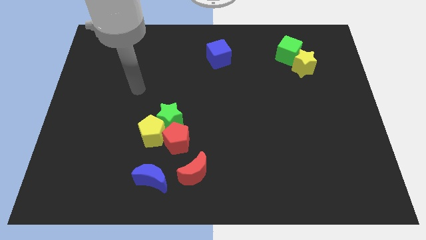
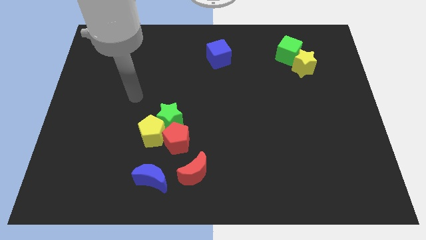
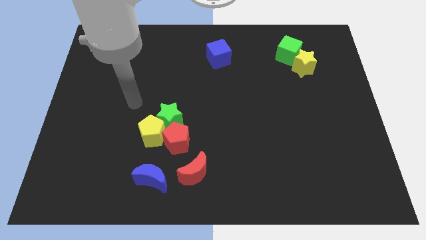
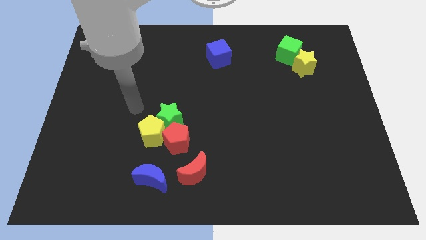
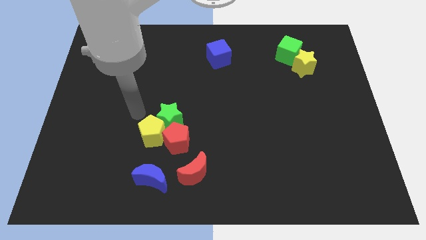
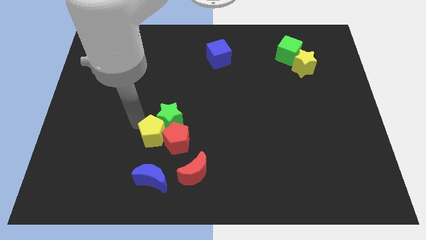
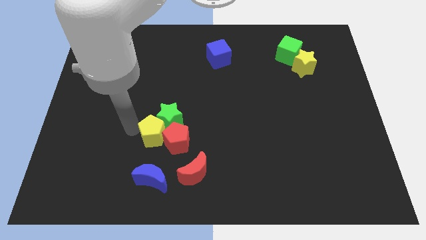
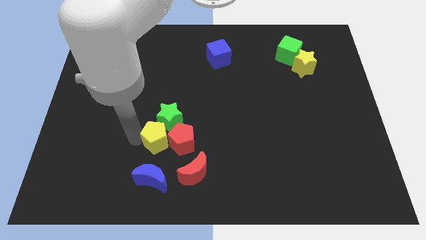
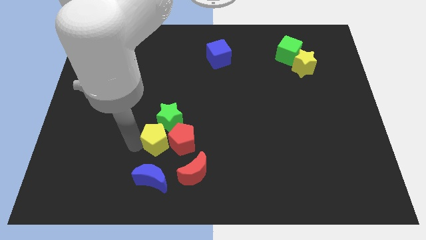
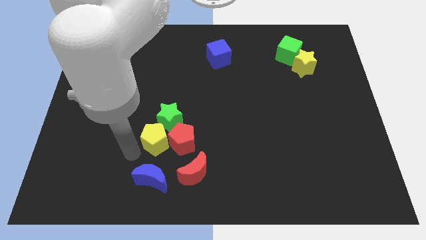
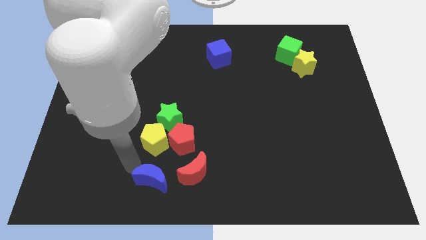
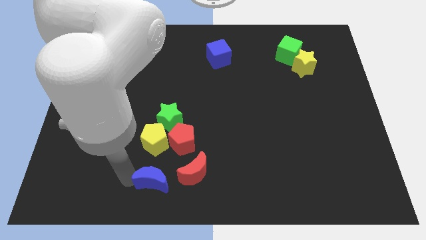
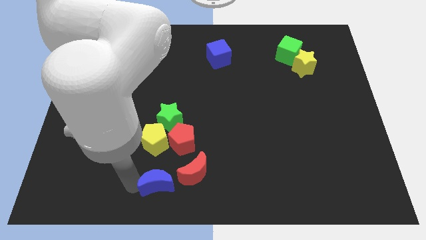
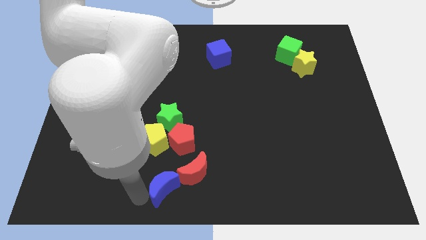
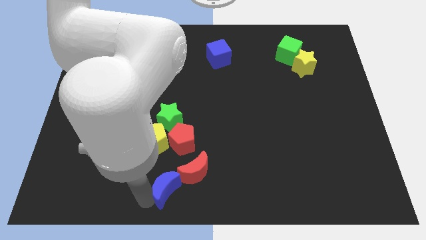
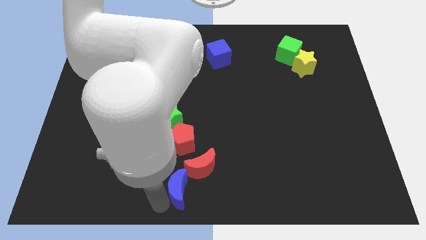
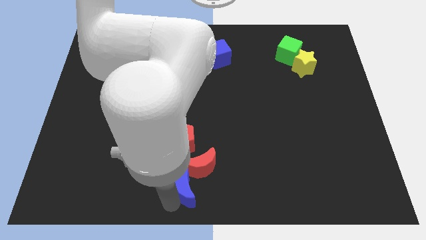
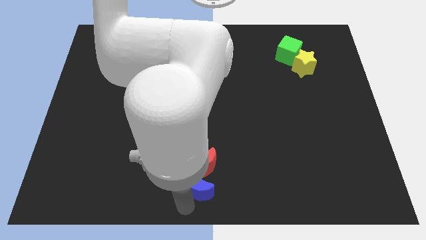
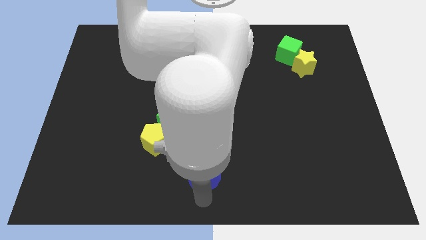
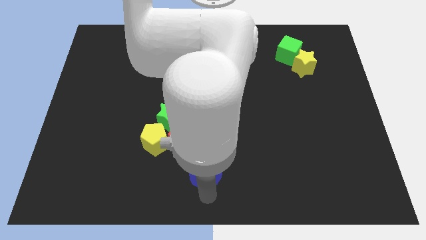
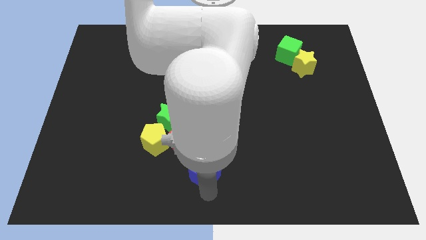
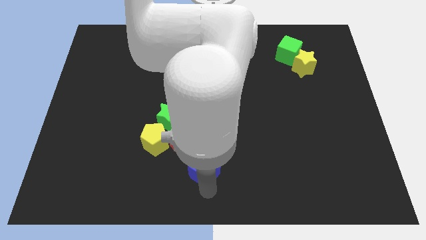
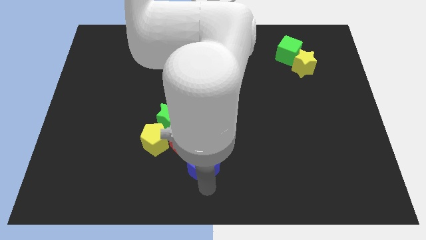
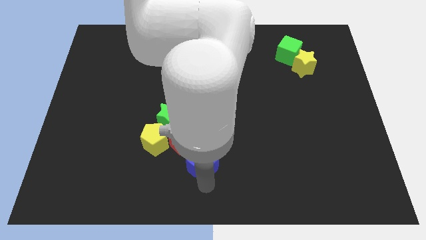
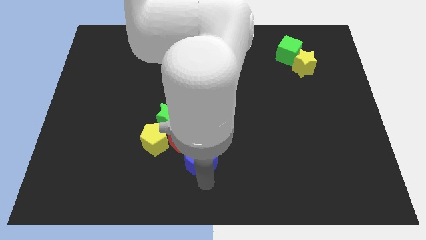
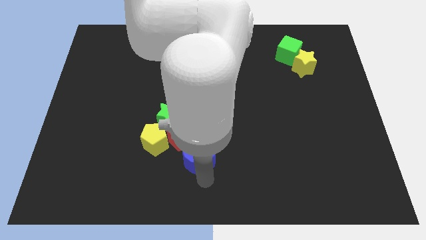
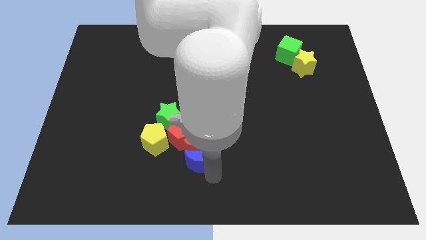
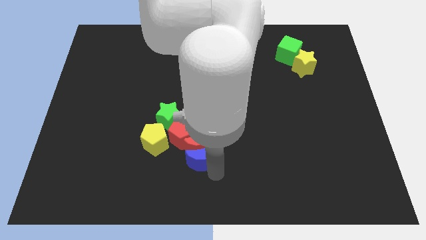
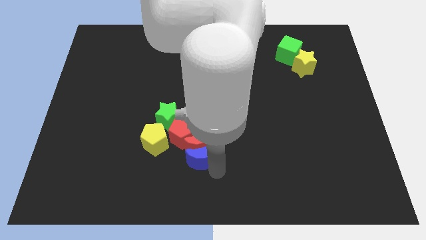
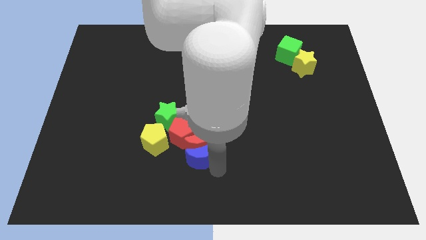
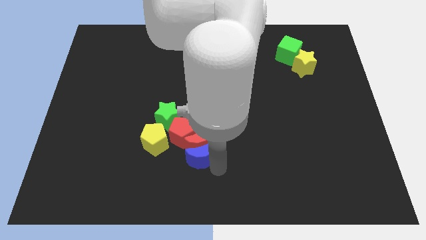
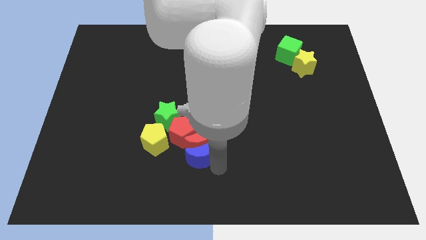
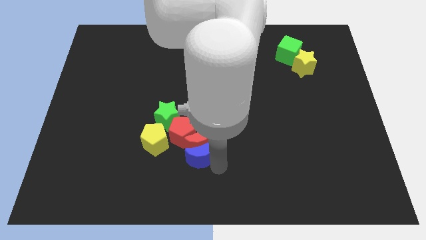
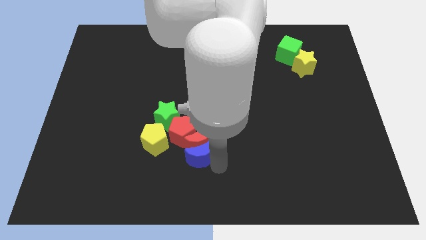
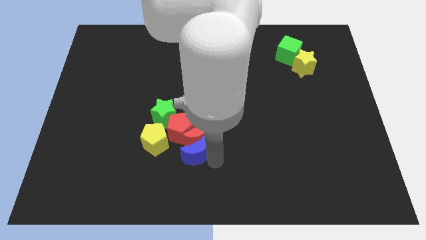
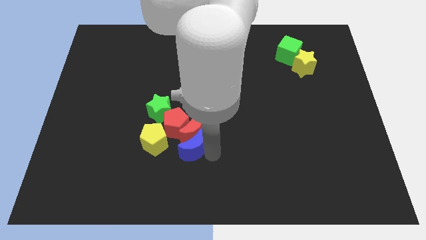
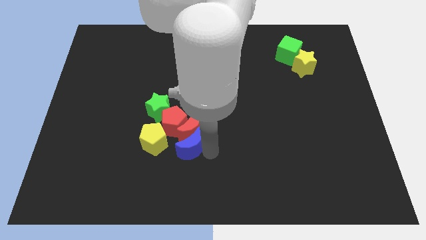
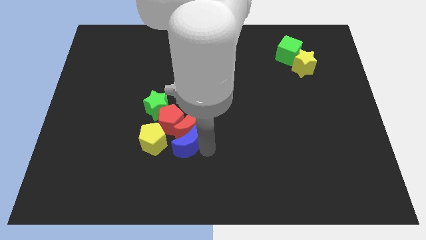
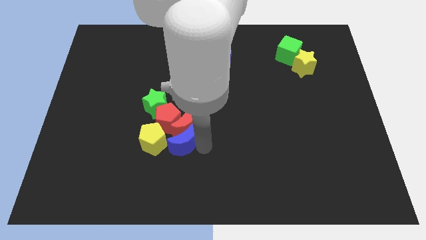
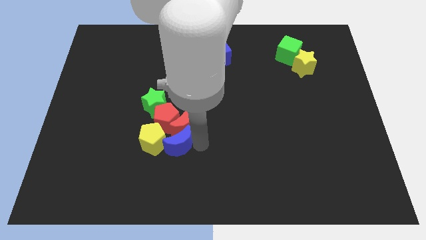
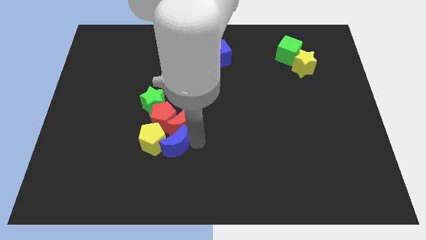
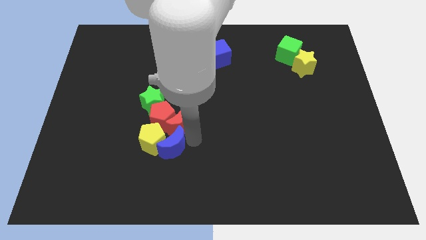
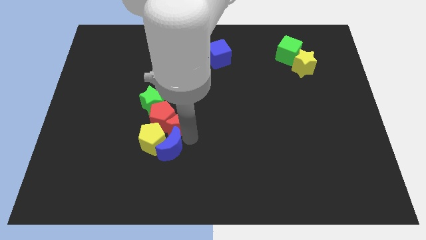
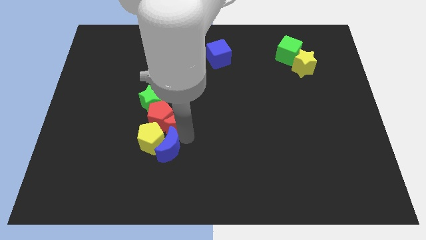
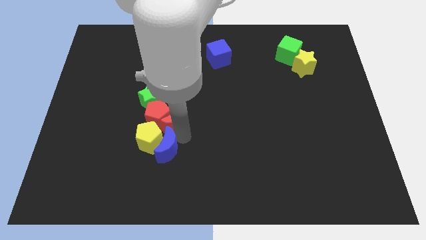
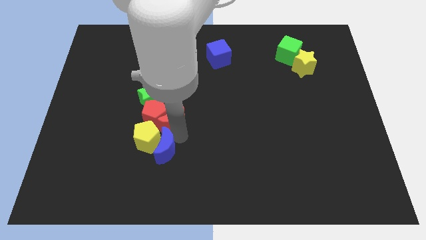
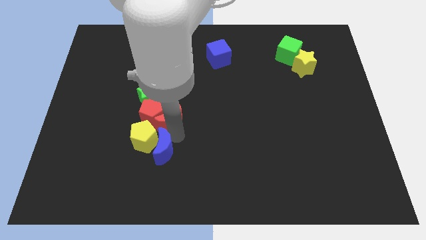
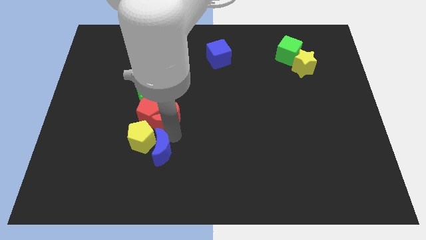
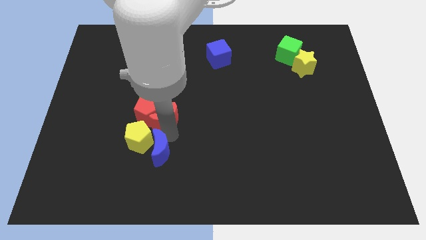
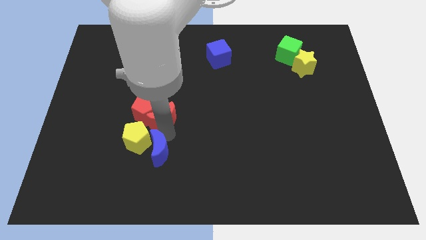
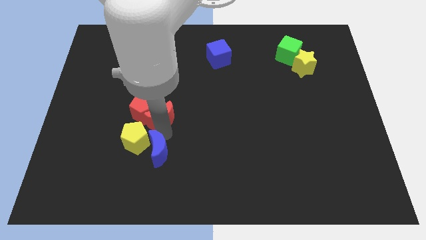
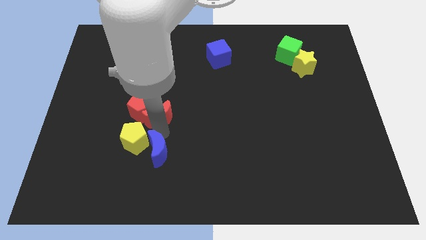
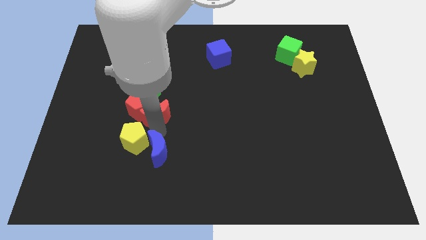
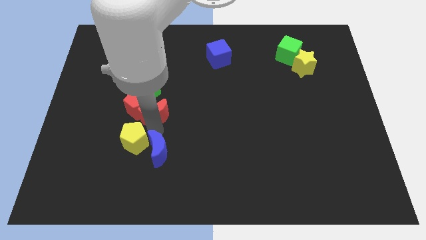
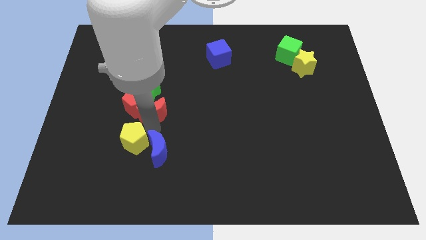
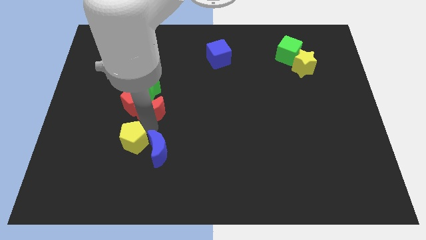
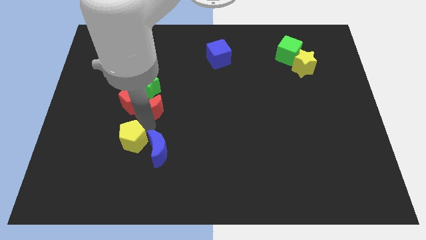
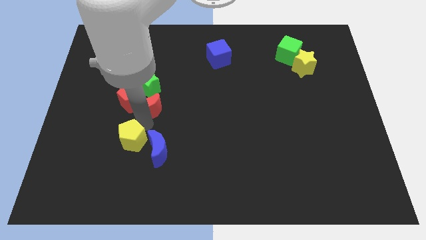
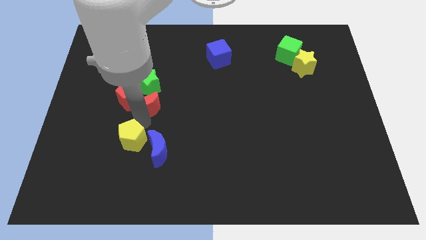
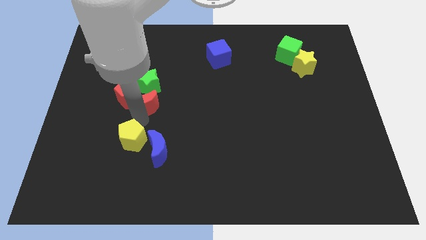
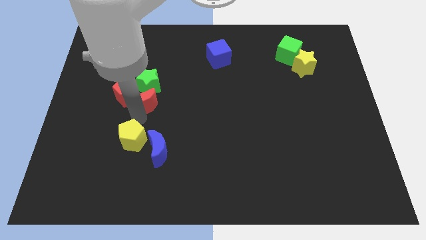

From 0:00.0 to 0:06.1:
put the red moon to the green star

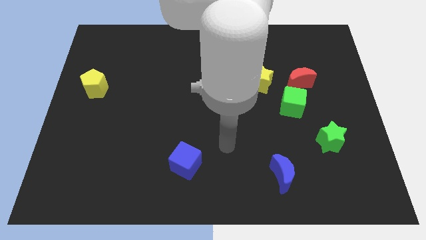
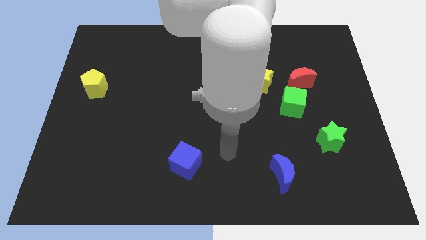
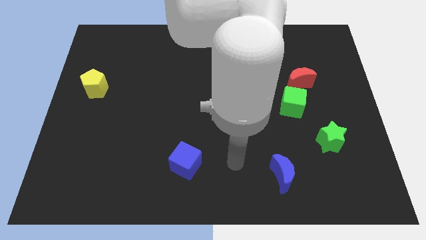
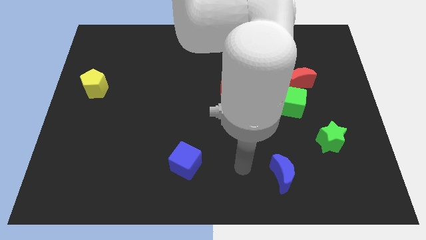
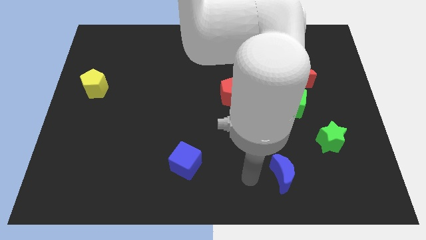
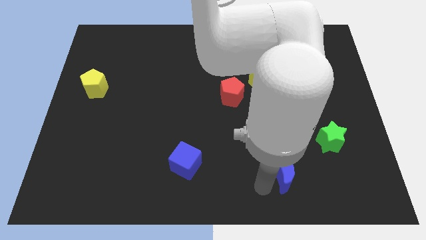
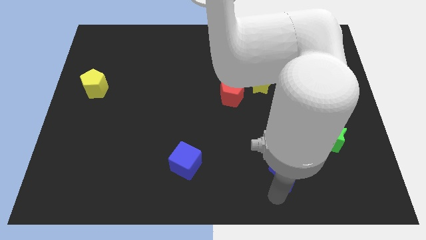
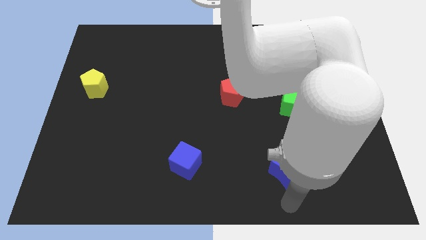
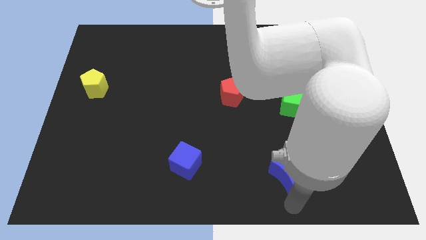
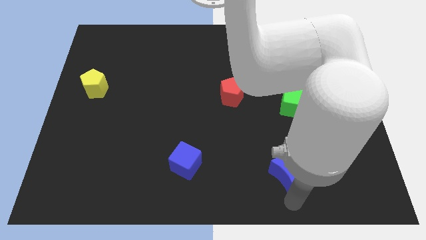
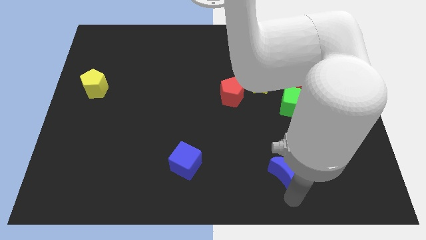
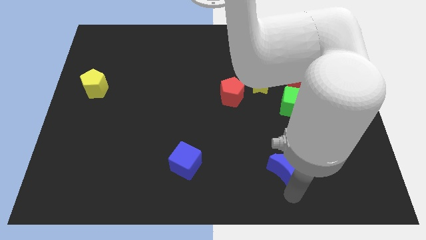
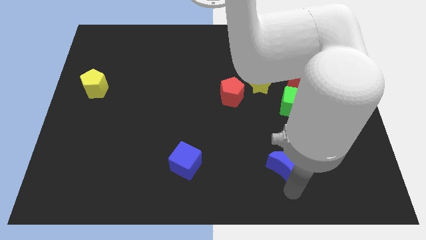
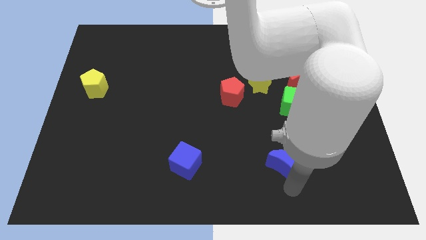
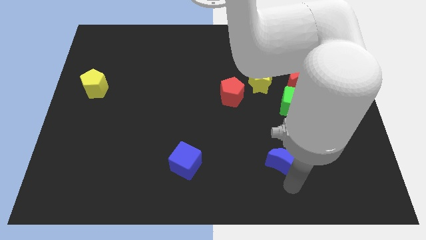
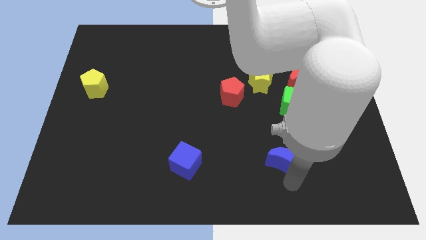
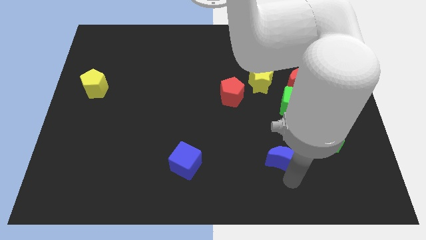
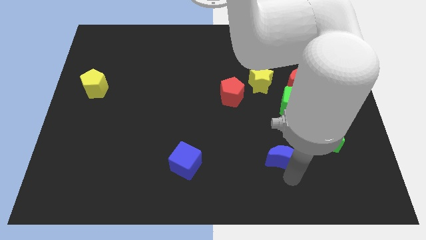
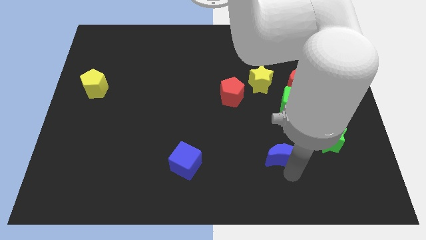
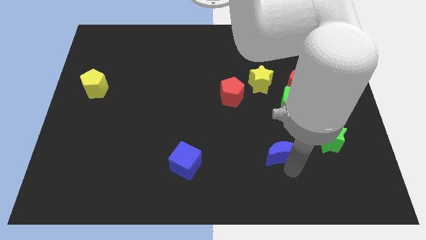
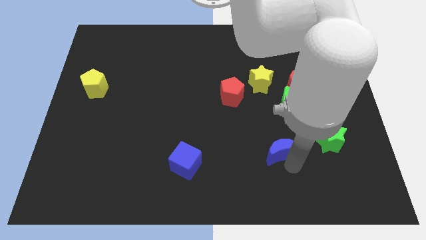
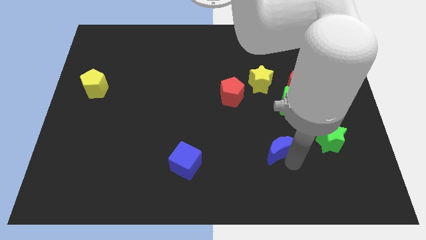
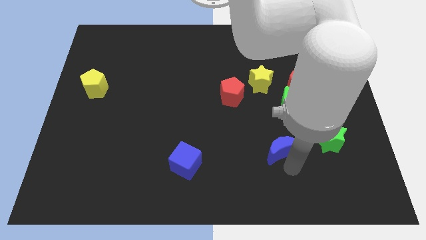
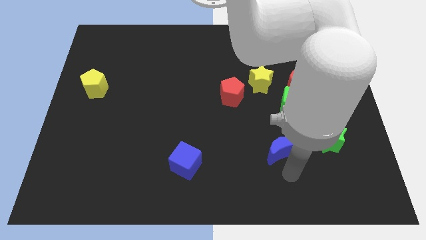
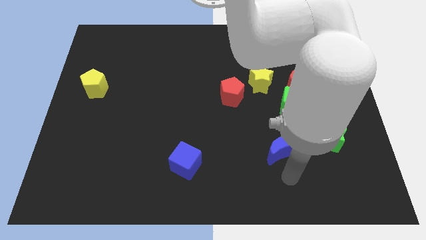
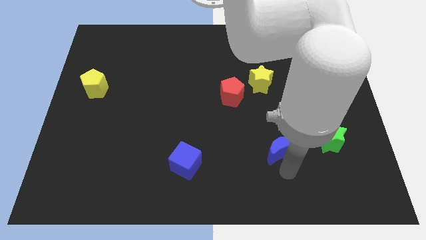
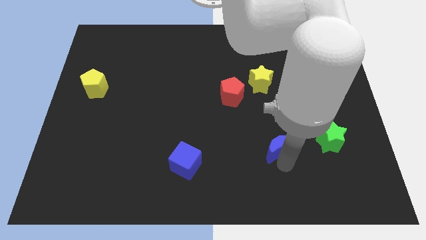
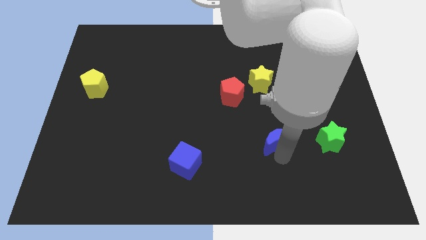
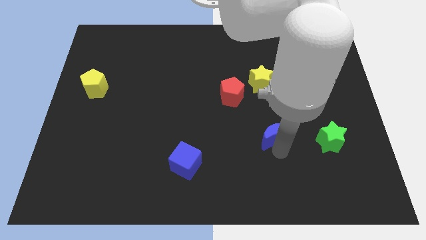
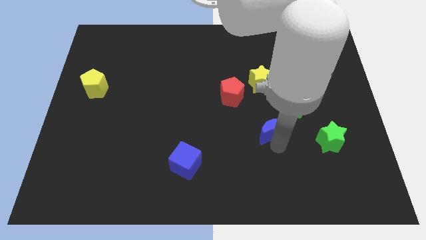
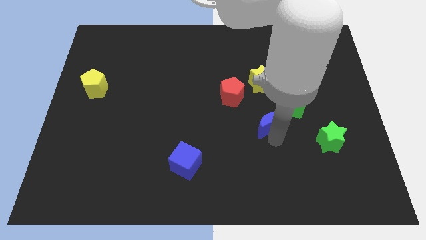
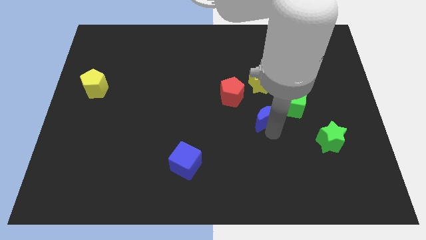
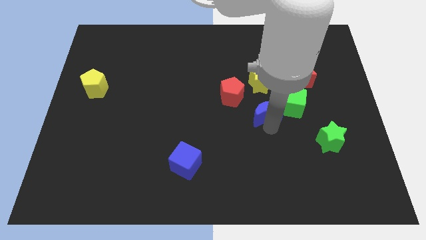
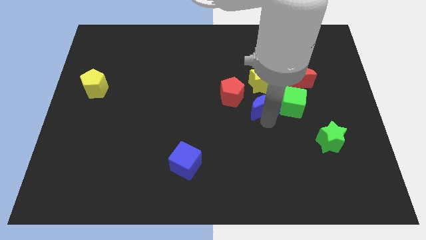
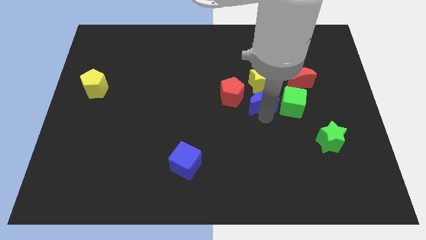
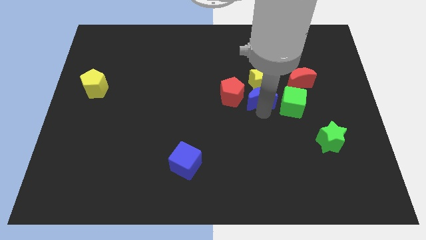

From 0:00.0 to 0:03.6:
put the blue moon next to the yellow star
